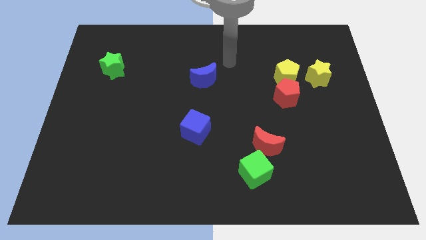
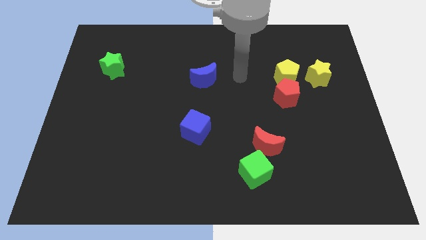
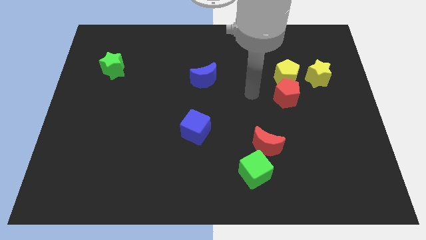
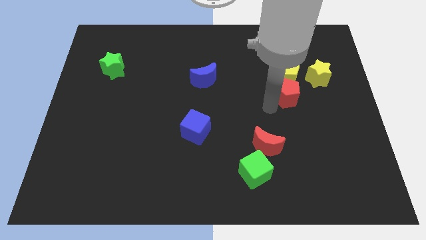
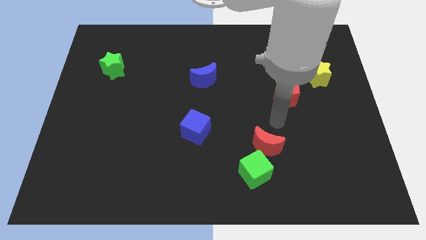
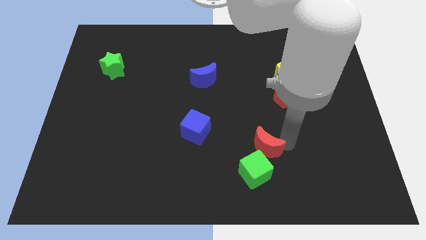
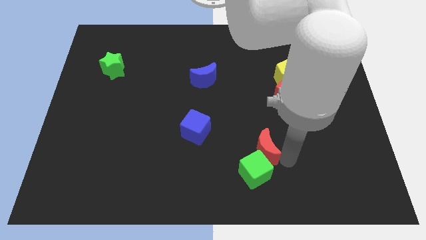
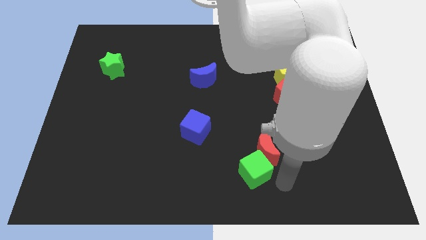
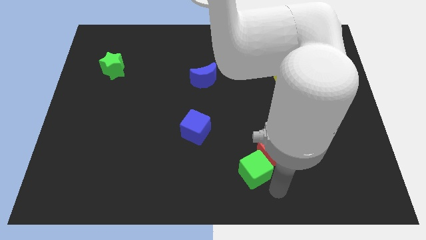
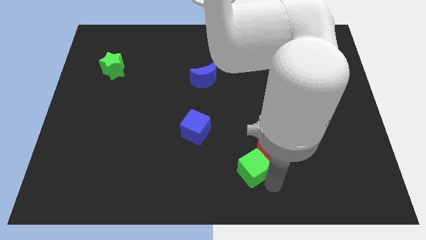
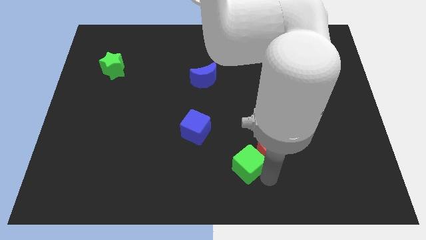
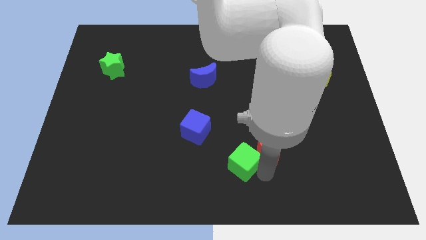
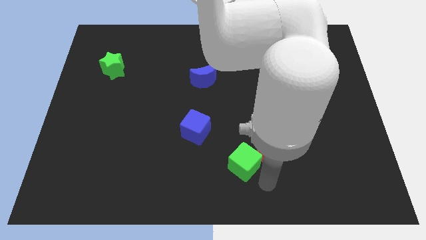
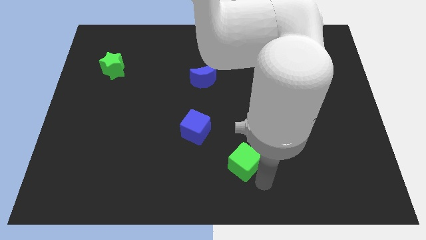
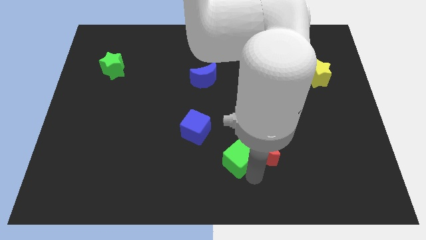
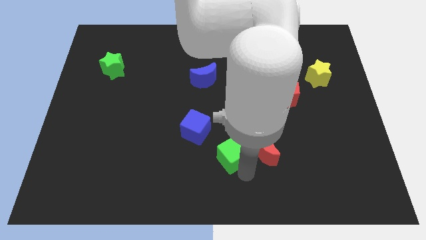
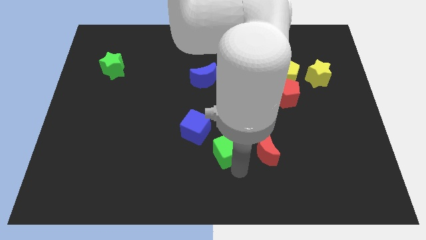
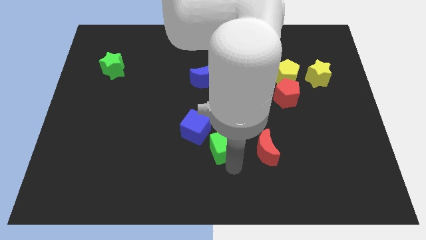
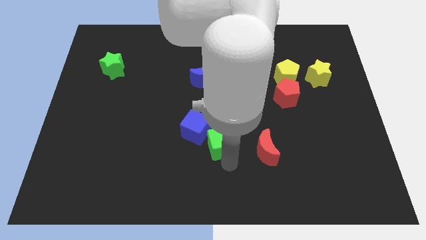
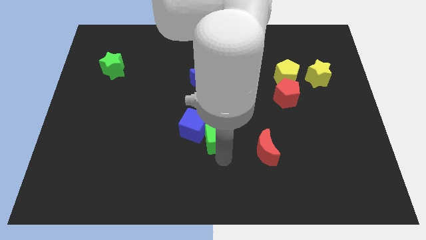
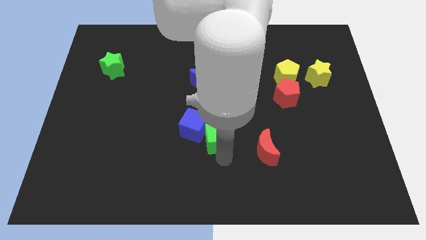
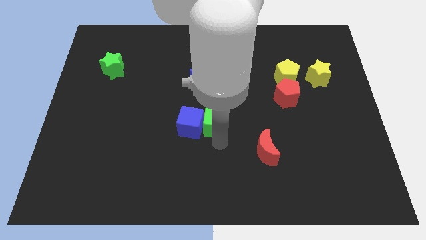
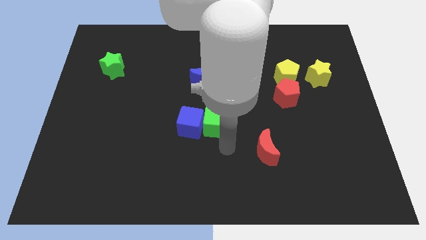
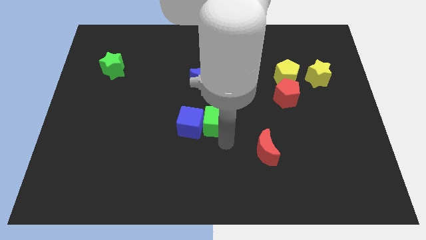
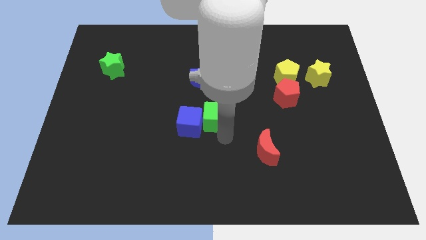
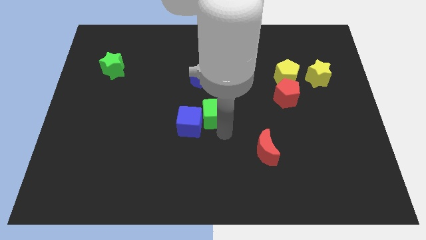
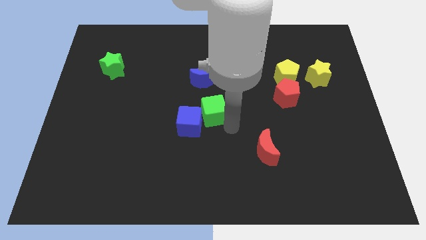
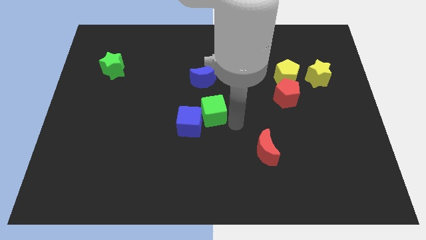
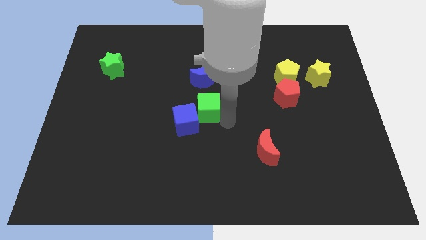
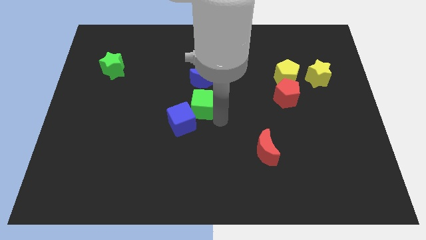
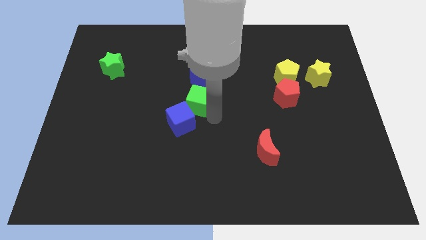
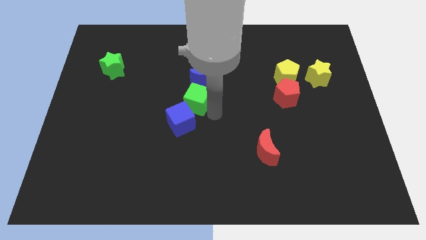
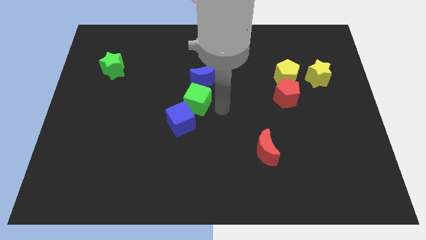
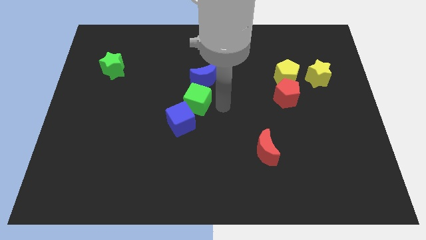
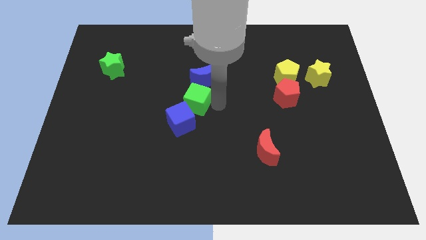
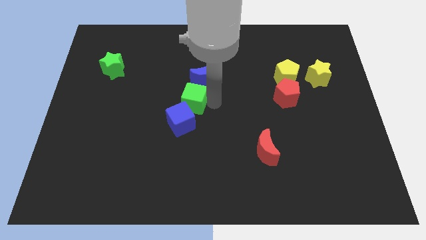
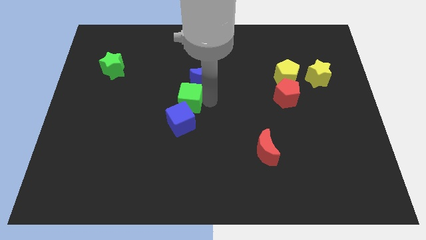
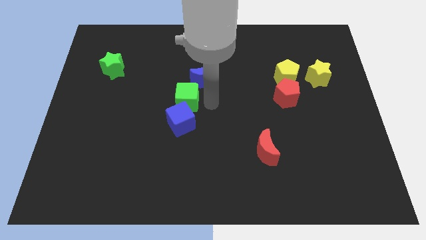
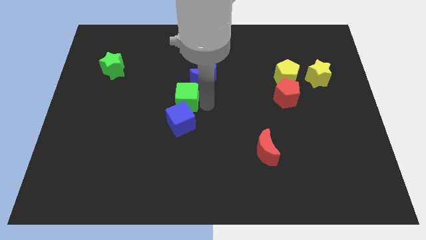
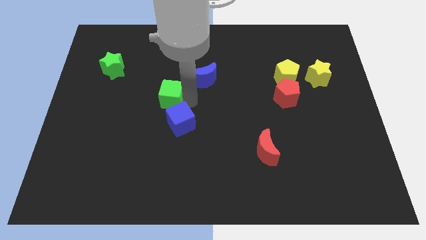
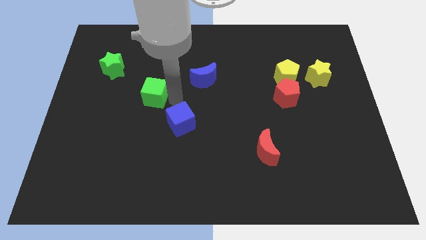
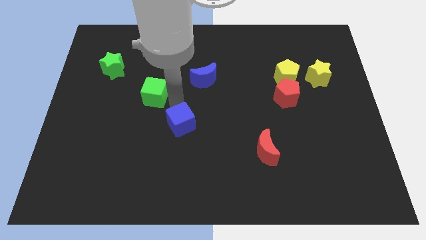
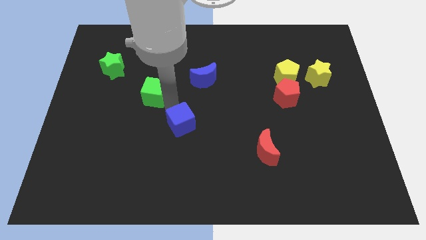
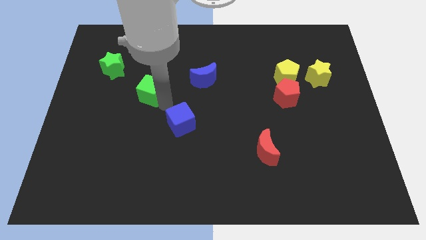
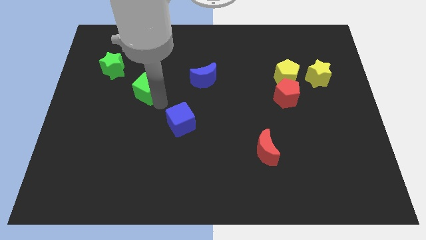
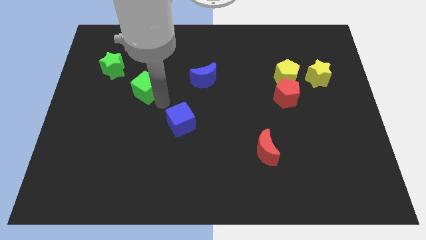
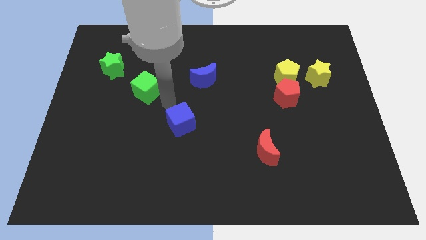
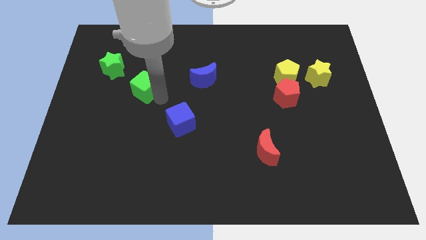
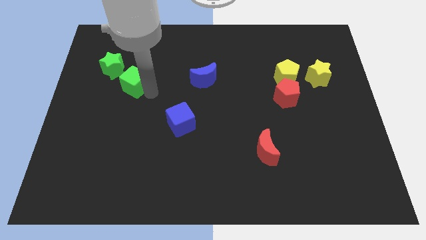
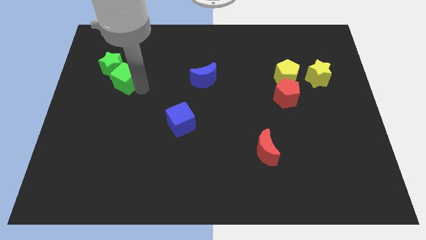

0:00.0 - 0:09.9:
slide the green cube close to the green star

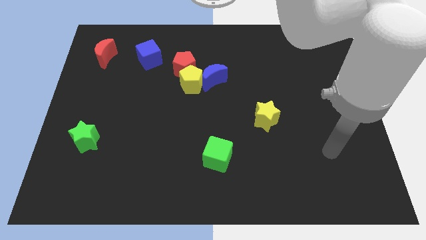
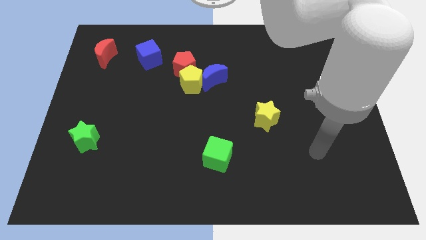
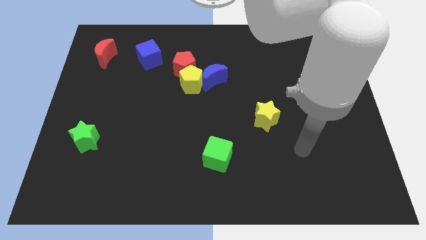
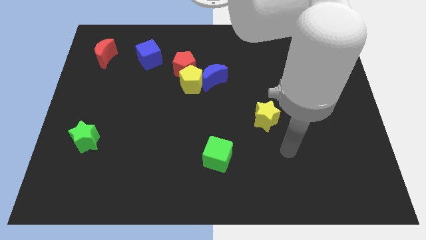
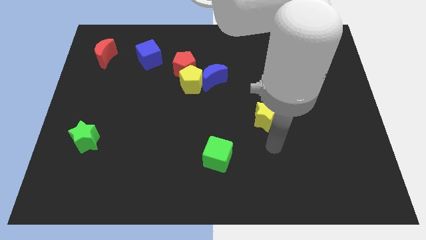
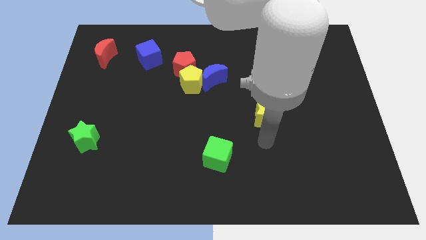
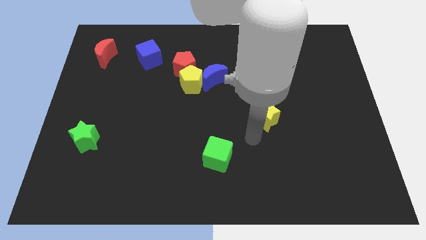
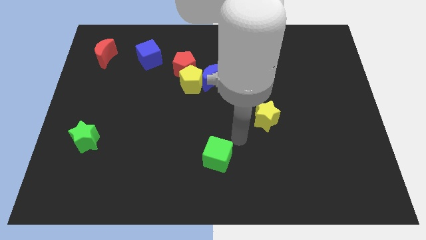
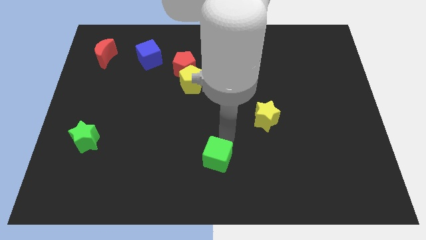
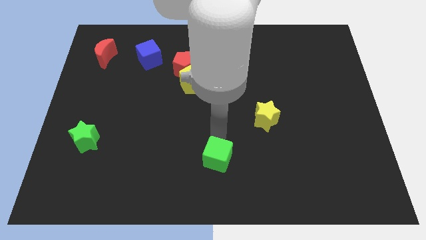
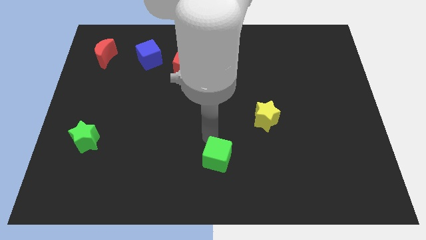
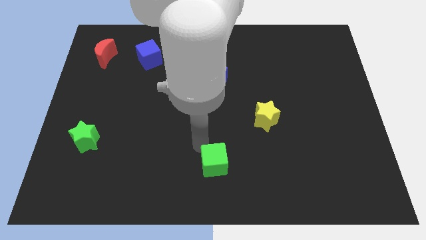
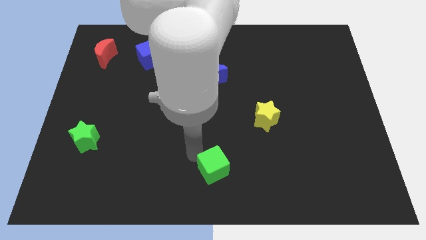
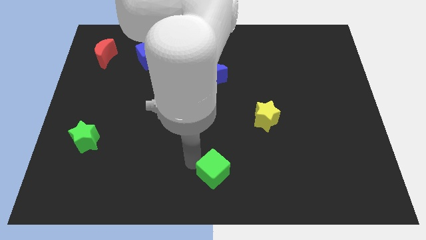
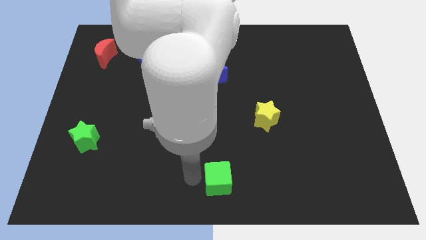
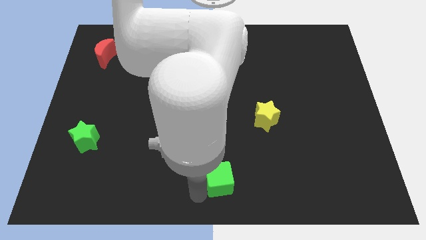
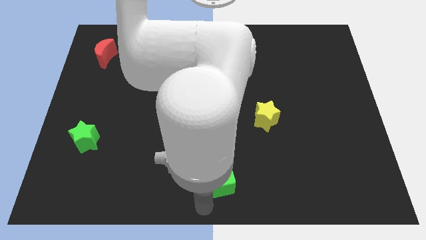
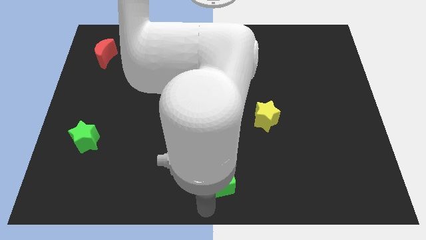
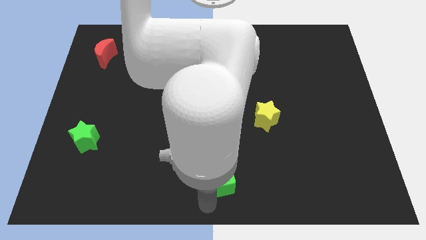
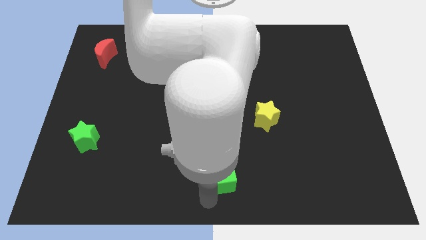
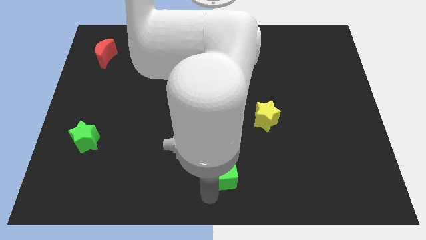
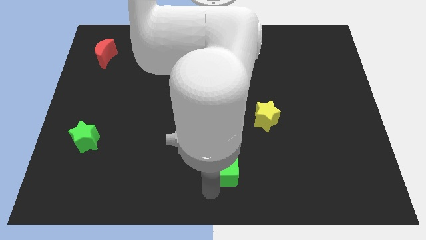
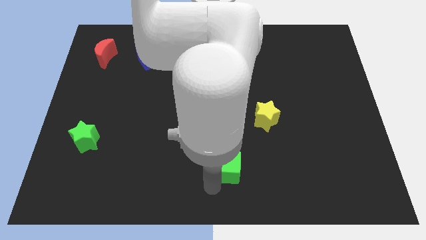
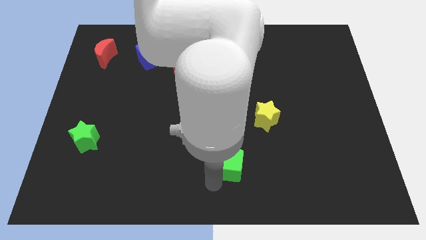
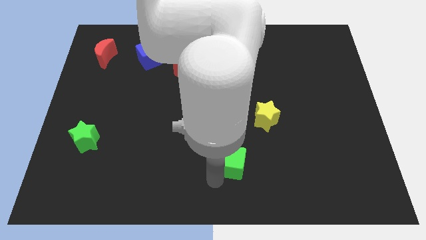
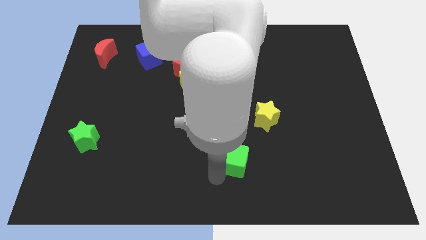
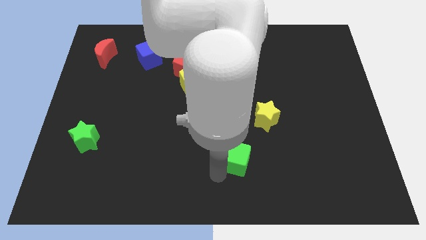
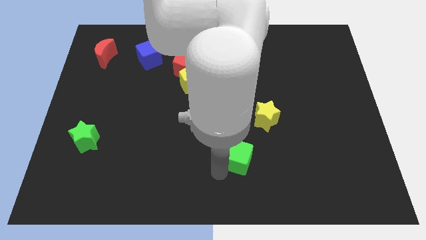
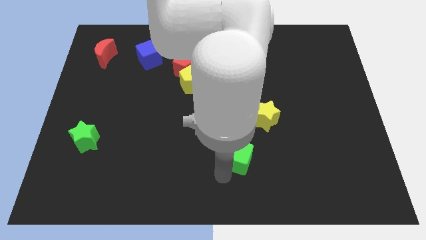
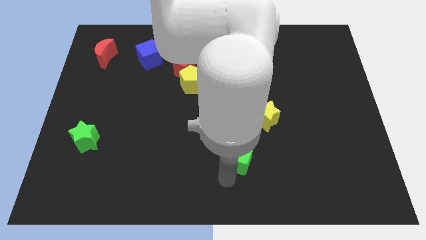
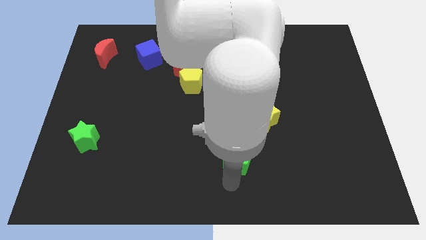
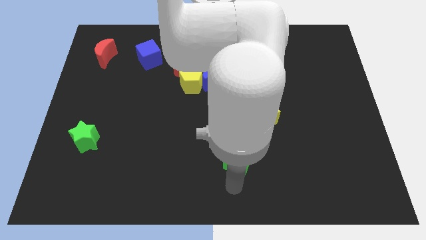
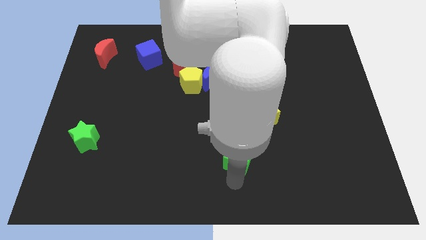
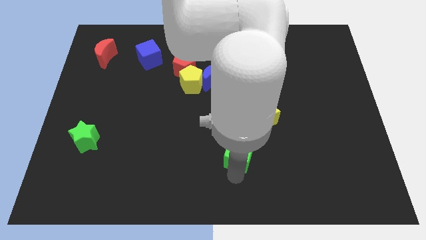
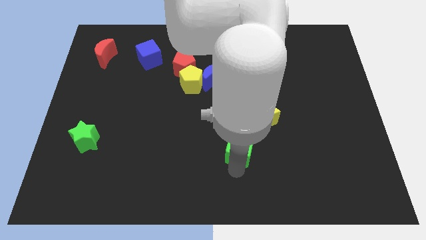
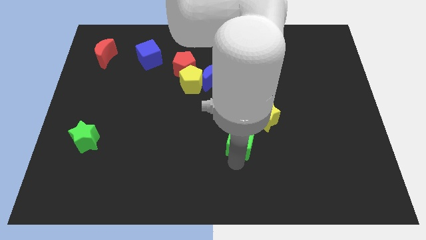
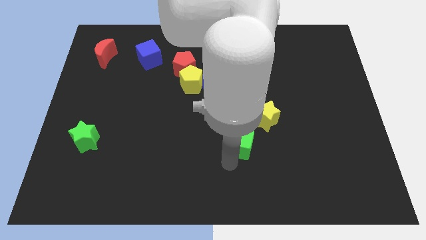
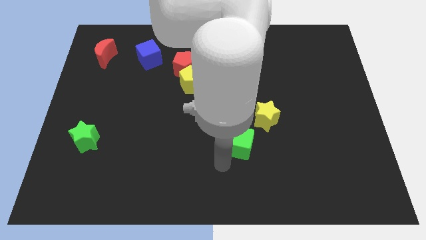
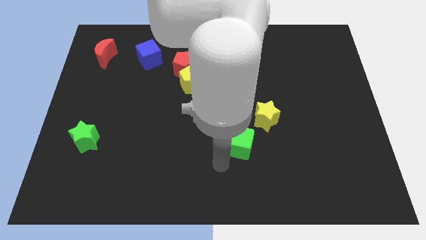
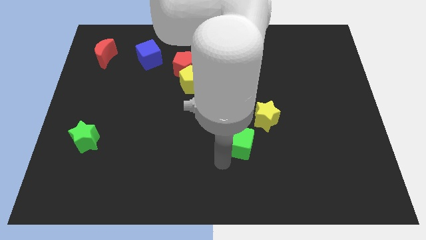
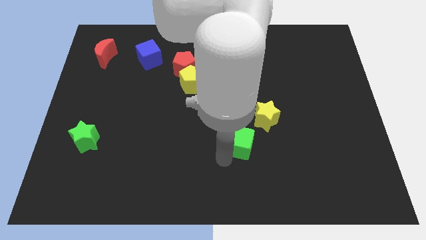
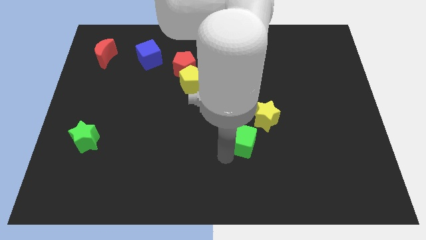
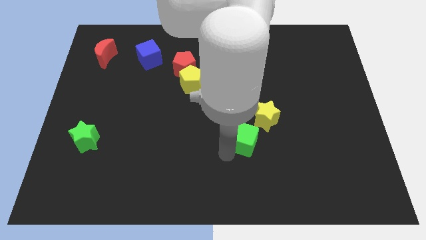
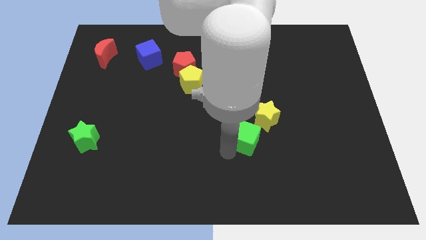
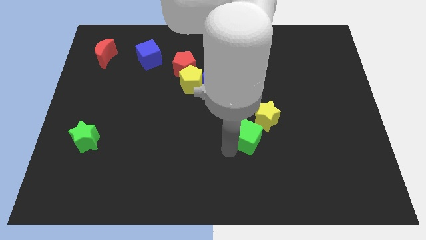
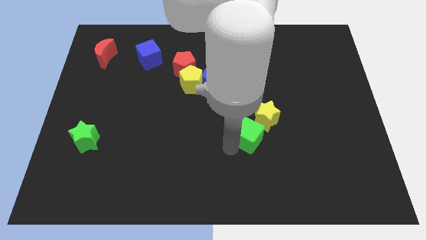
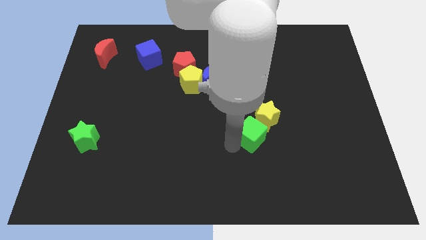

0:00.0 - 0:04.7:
put the green cube close to the yellow star
